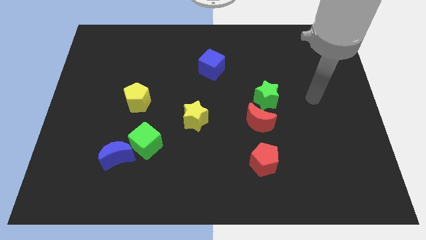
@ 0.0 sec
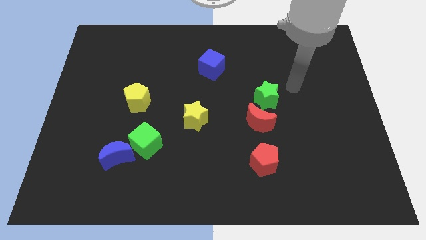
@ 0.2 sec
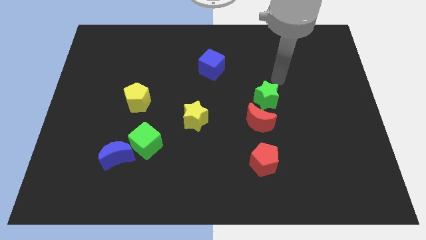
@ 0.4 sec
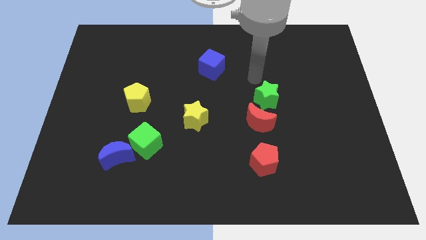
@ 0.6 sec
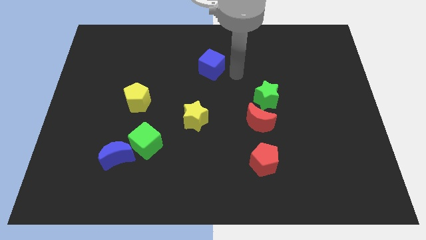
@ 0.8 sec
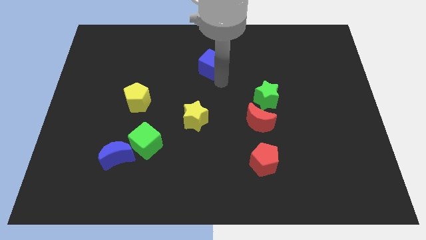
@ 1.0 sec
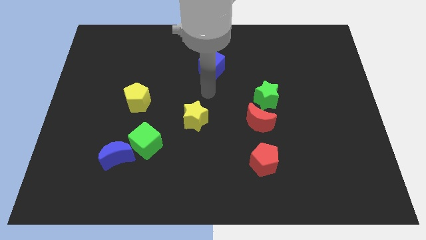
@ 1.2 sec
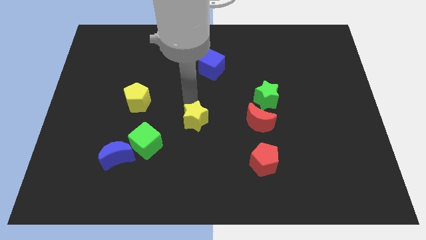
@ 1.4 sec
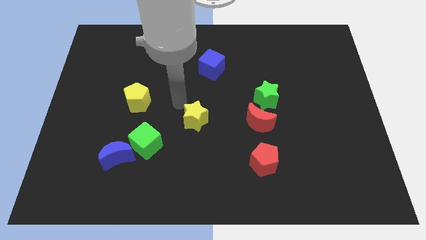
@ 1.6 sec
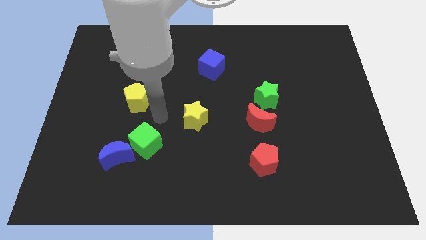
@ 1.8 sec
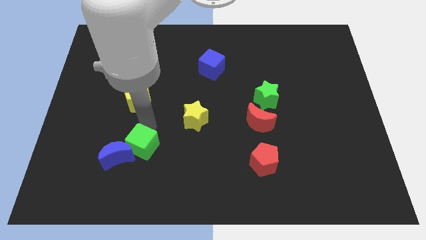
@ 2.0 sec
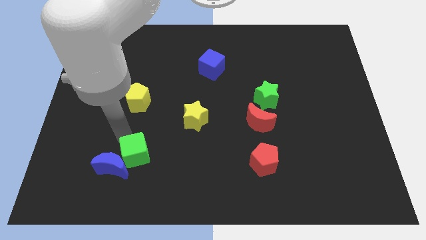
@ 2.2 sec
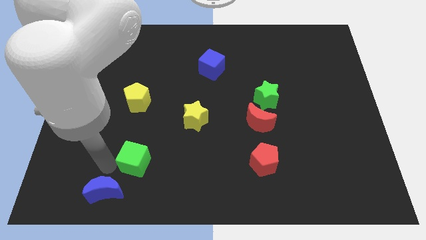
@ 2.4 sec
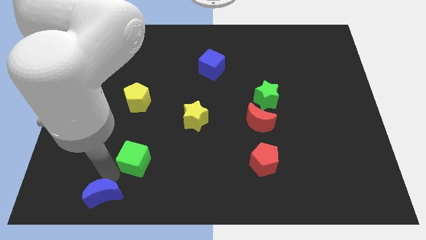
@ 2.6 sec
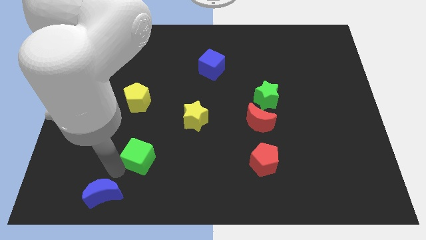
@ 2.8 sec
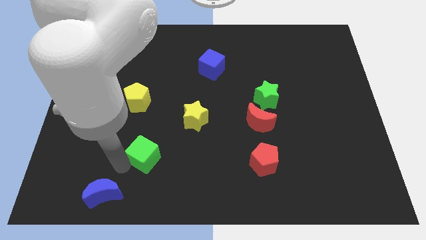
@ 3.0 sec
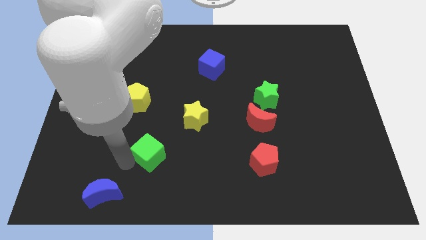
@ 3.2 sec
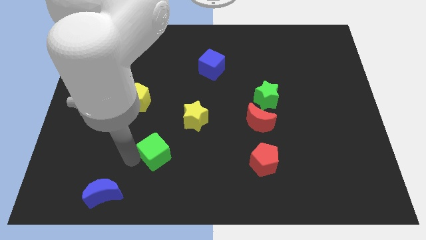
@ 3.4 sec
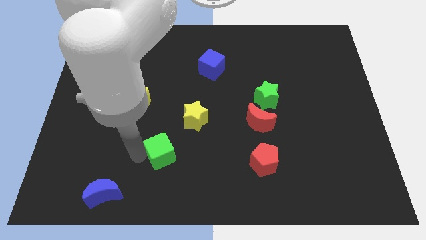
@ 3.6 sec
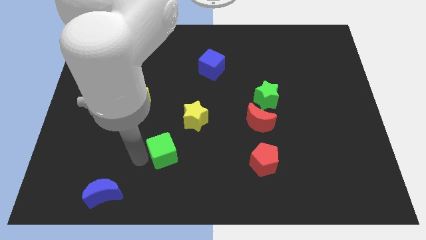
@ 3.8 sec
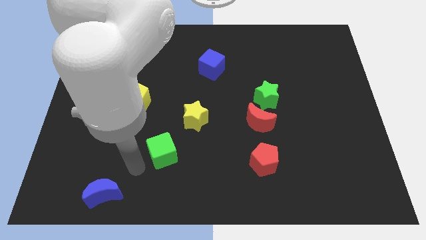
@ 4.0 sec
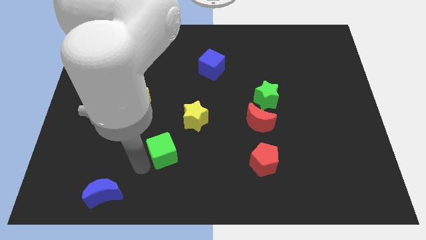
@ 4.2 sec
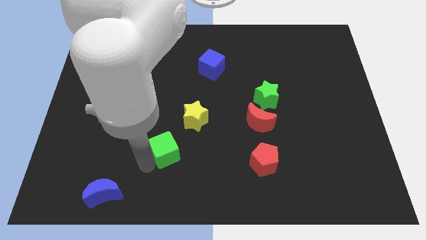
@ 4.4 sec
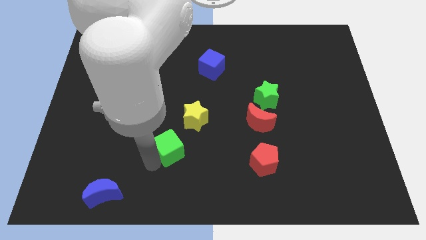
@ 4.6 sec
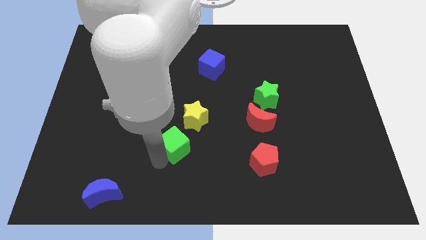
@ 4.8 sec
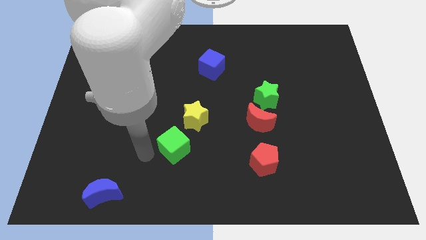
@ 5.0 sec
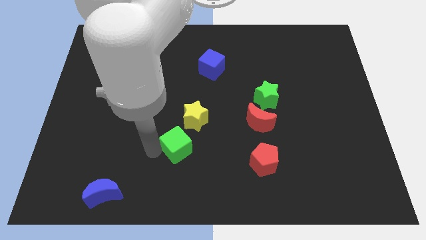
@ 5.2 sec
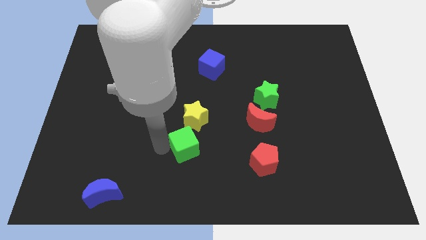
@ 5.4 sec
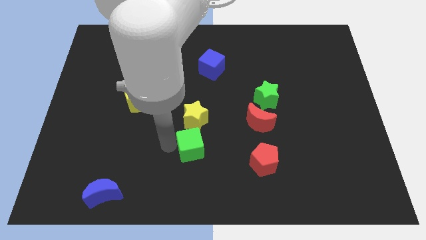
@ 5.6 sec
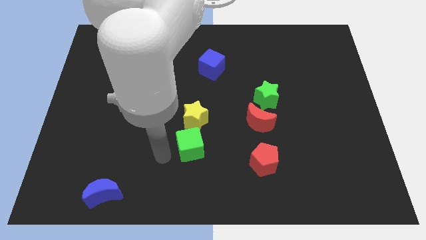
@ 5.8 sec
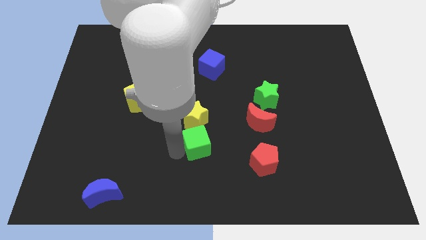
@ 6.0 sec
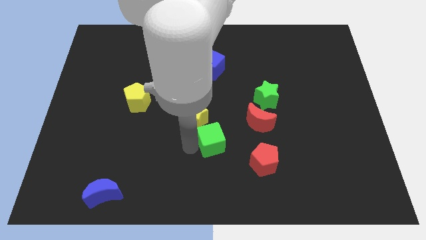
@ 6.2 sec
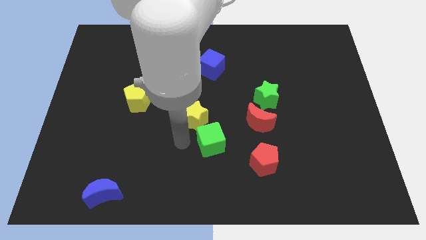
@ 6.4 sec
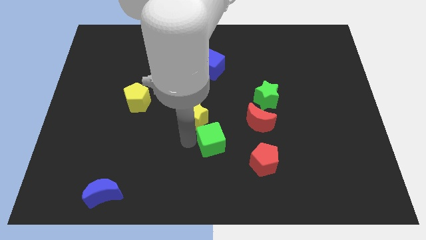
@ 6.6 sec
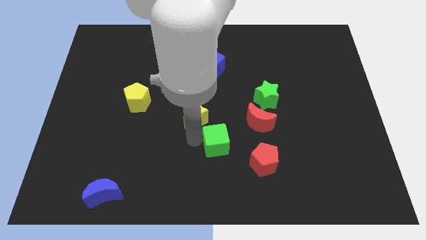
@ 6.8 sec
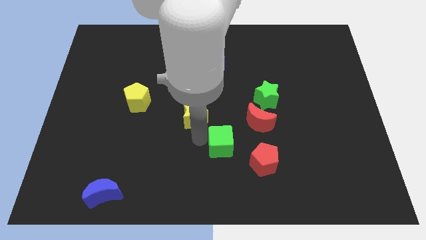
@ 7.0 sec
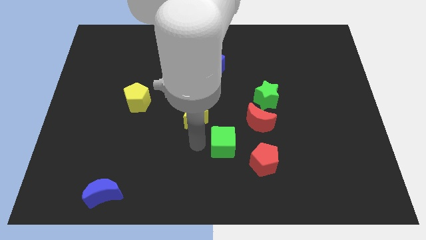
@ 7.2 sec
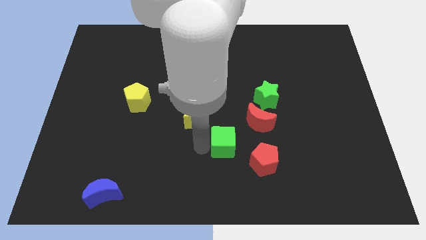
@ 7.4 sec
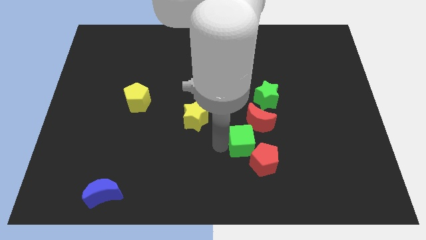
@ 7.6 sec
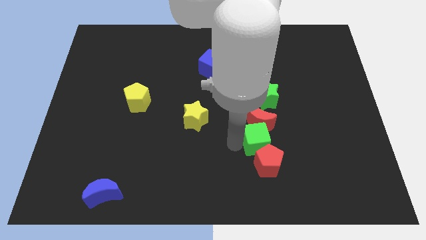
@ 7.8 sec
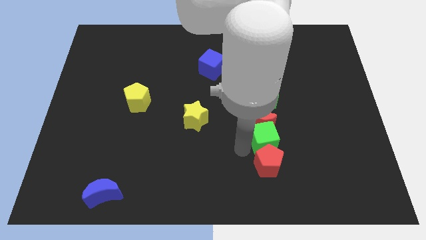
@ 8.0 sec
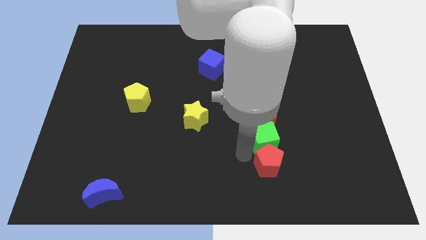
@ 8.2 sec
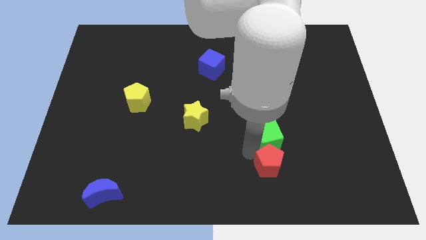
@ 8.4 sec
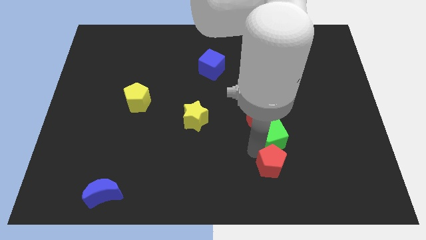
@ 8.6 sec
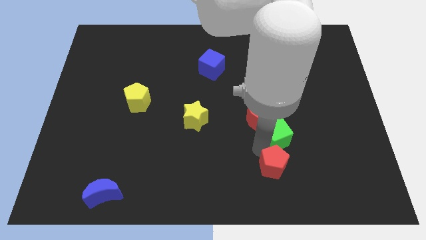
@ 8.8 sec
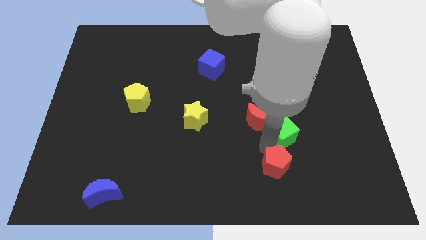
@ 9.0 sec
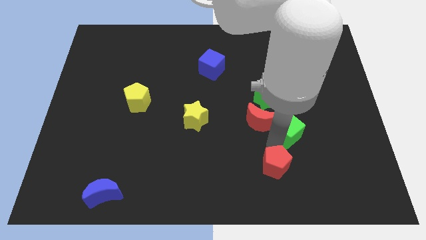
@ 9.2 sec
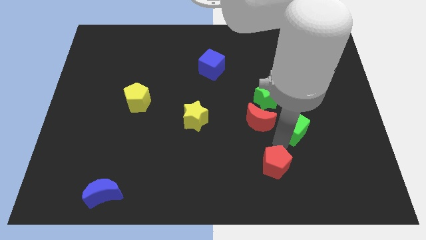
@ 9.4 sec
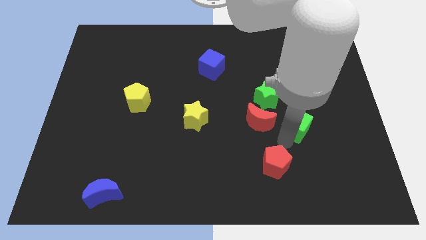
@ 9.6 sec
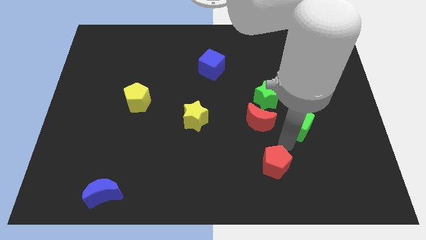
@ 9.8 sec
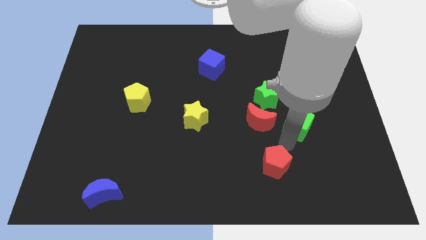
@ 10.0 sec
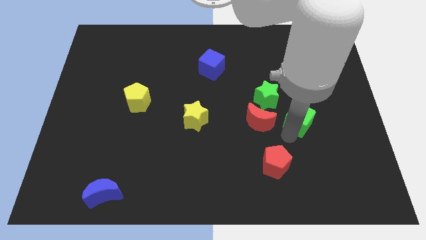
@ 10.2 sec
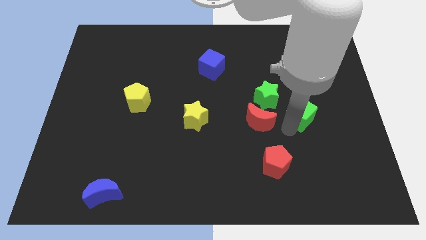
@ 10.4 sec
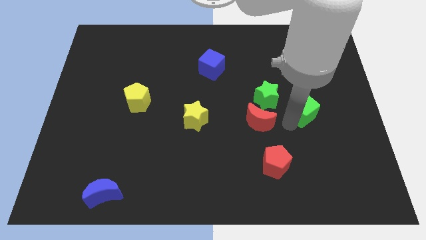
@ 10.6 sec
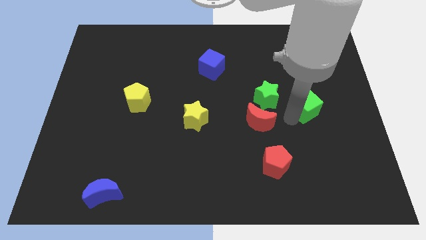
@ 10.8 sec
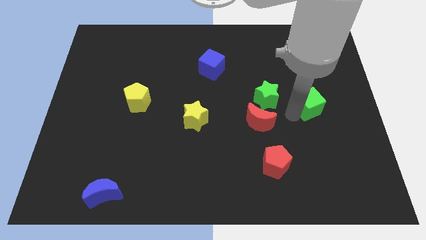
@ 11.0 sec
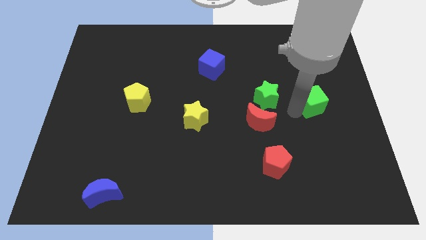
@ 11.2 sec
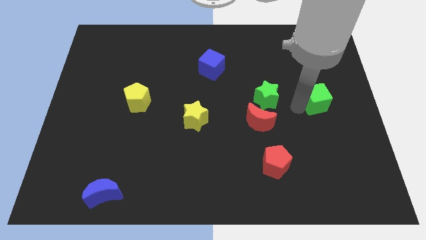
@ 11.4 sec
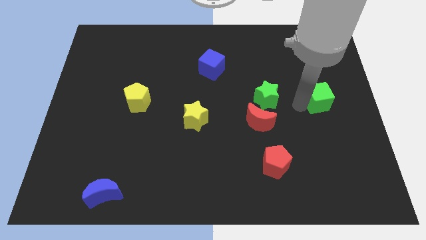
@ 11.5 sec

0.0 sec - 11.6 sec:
put the green cube to the right side
